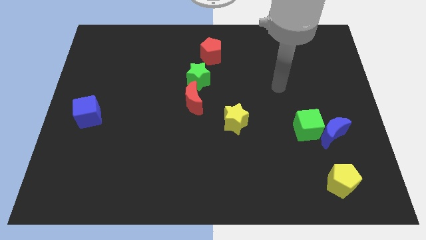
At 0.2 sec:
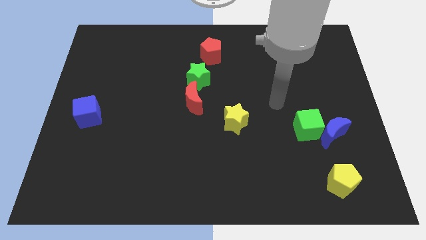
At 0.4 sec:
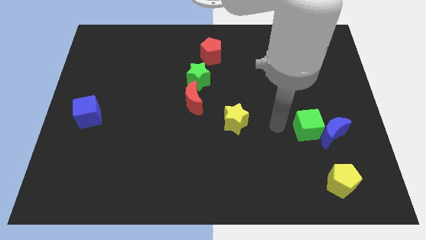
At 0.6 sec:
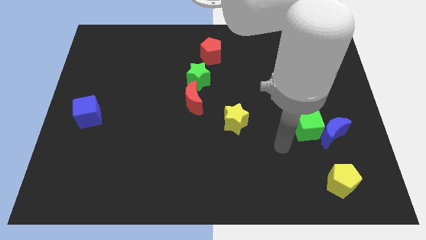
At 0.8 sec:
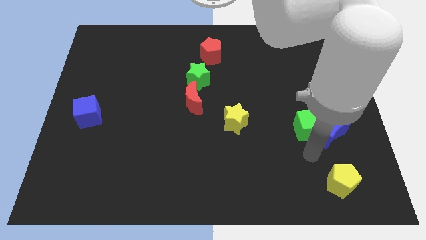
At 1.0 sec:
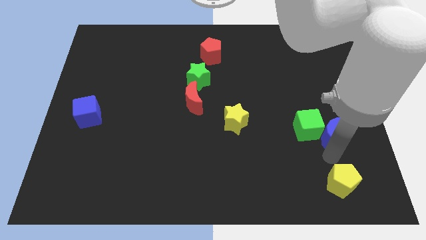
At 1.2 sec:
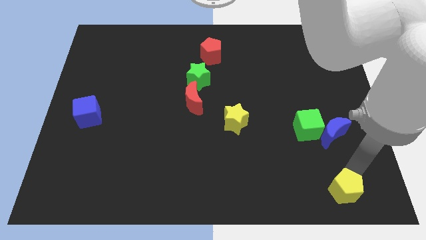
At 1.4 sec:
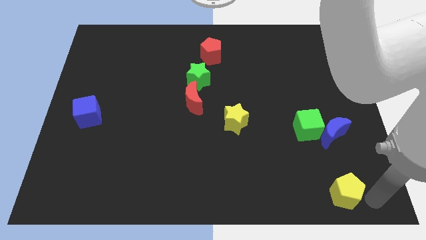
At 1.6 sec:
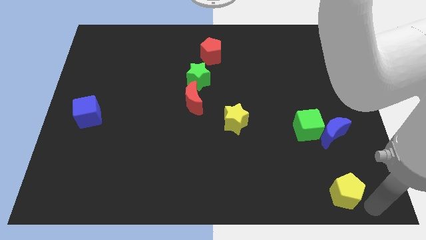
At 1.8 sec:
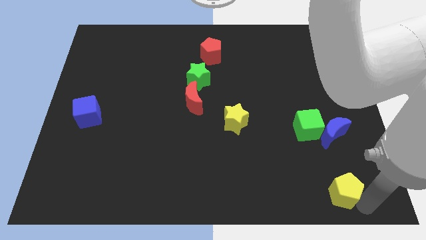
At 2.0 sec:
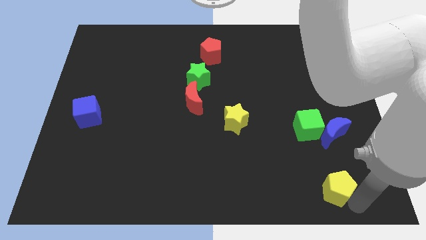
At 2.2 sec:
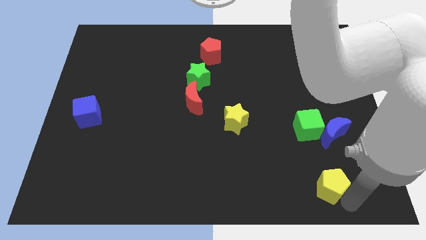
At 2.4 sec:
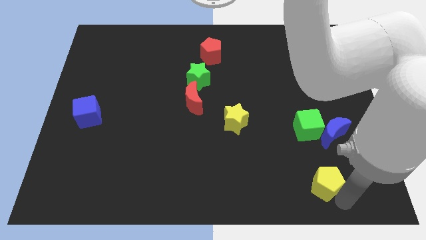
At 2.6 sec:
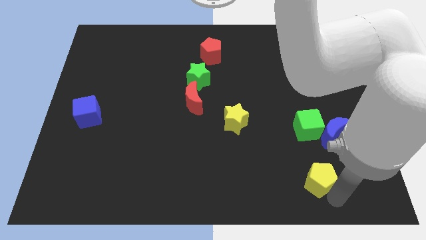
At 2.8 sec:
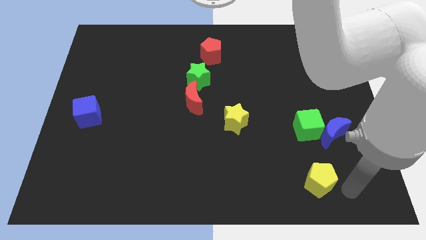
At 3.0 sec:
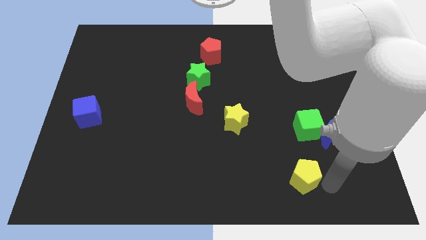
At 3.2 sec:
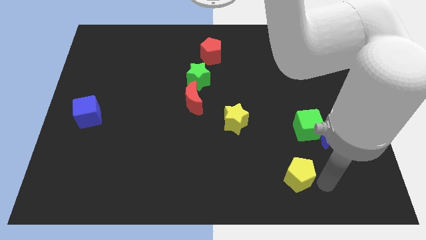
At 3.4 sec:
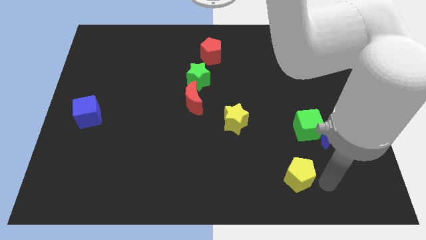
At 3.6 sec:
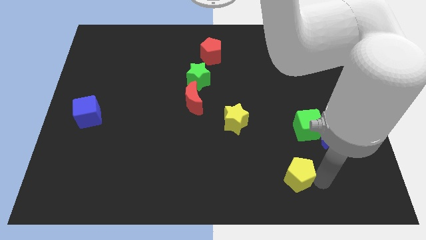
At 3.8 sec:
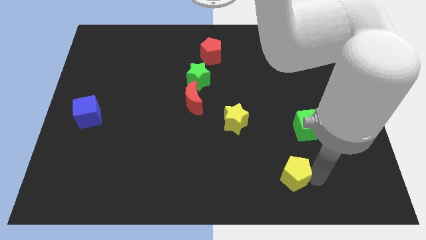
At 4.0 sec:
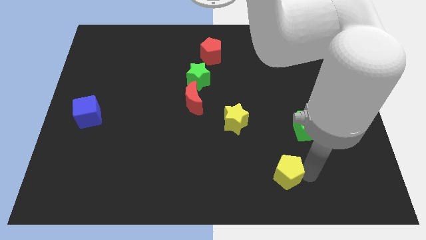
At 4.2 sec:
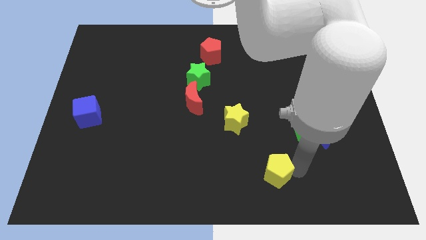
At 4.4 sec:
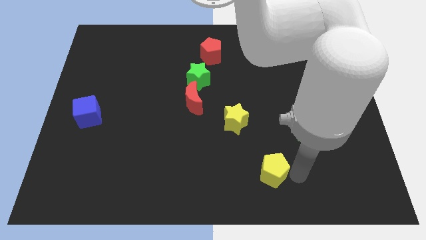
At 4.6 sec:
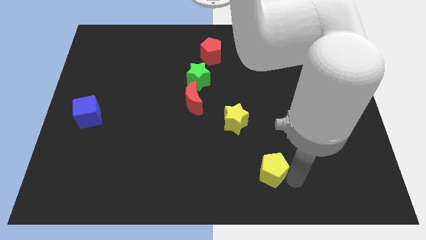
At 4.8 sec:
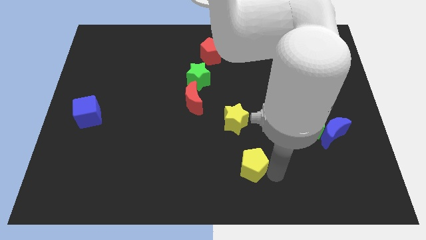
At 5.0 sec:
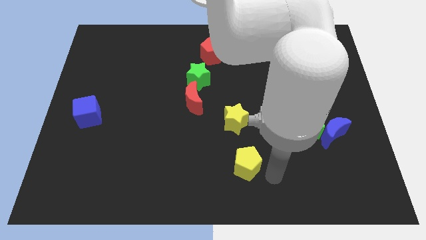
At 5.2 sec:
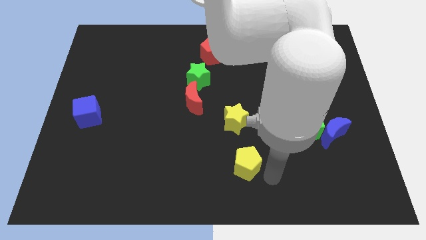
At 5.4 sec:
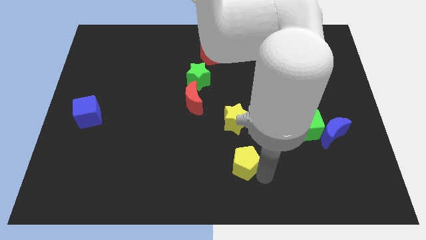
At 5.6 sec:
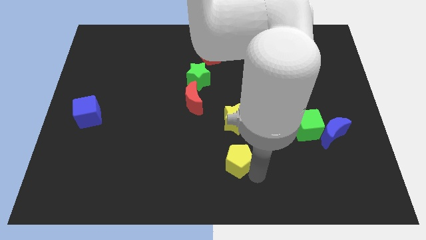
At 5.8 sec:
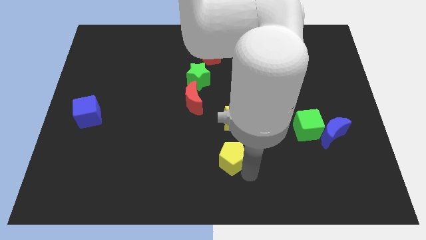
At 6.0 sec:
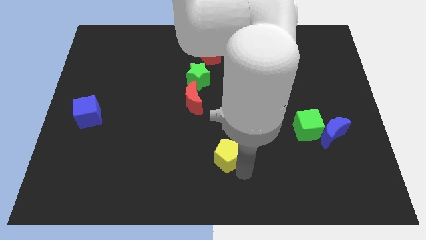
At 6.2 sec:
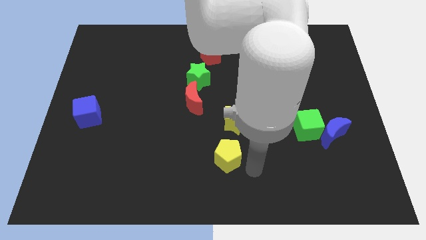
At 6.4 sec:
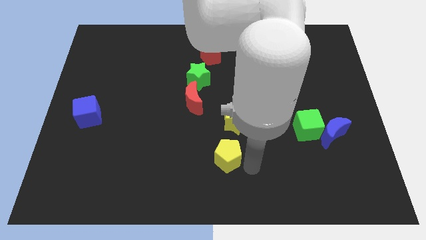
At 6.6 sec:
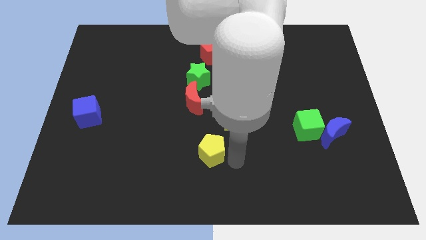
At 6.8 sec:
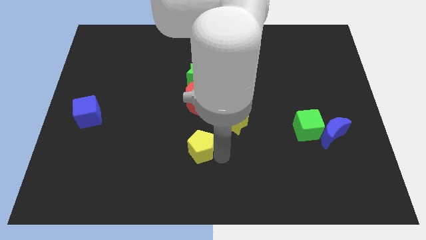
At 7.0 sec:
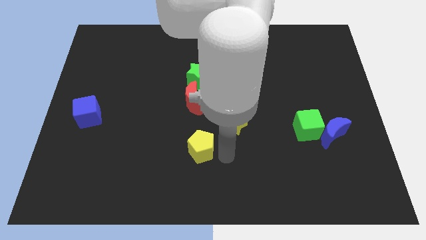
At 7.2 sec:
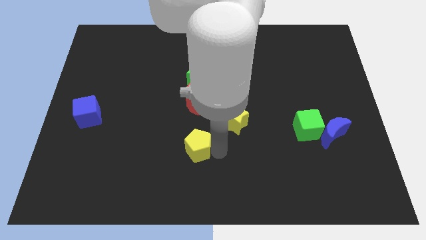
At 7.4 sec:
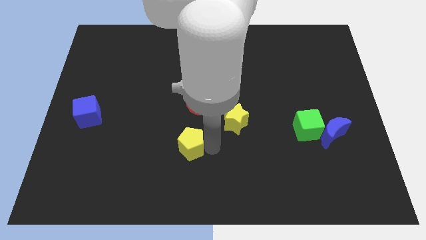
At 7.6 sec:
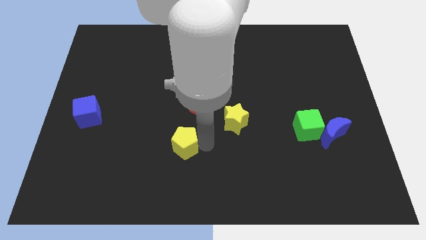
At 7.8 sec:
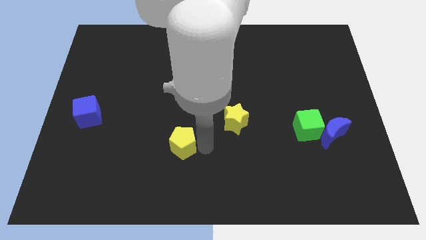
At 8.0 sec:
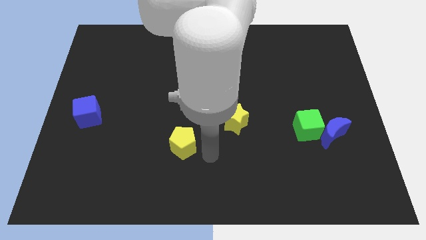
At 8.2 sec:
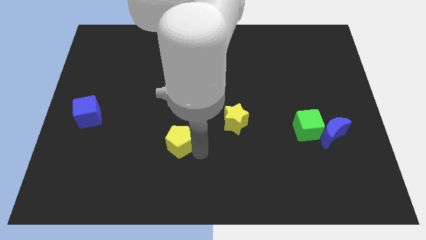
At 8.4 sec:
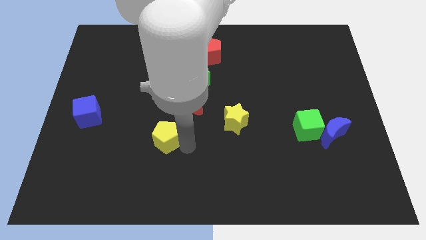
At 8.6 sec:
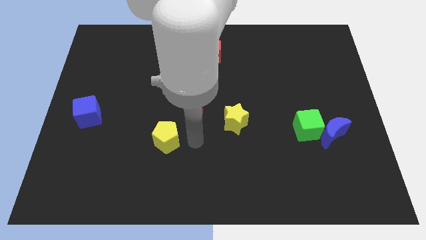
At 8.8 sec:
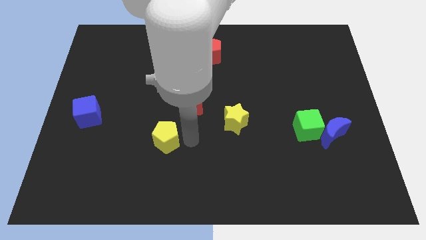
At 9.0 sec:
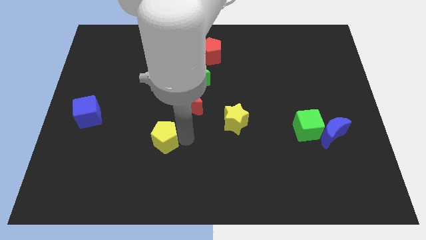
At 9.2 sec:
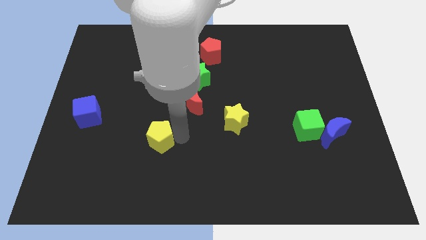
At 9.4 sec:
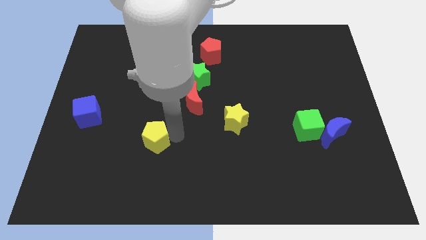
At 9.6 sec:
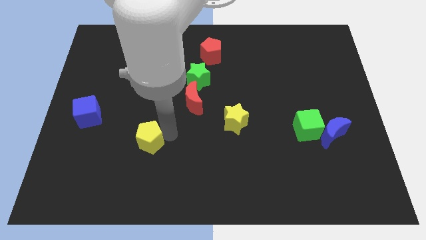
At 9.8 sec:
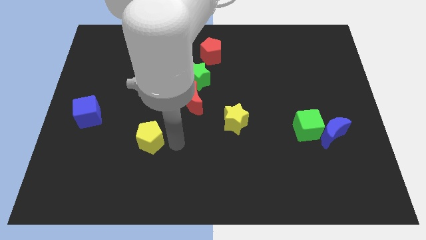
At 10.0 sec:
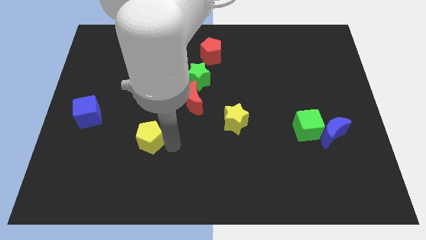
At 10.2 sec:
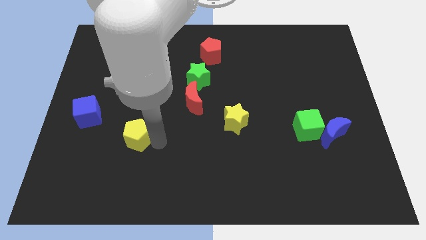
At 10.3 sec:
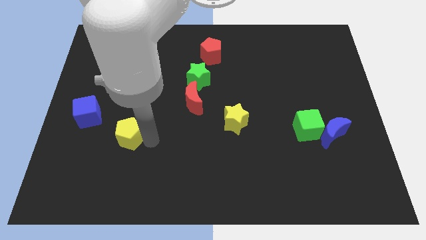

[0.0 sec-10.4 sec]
slide the yellow pentagon diagonally down and to the right of the blue cube

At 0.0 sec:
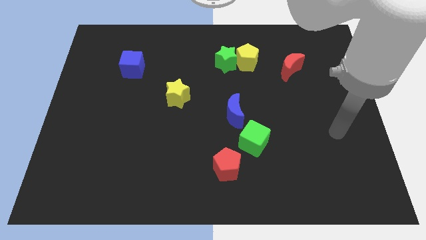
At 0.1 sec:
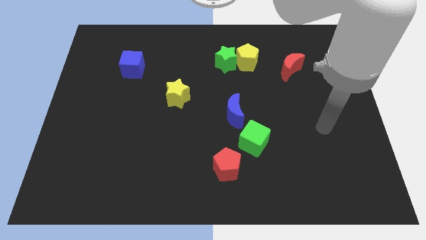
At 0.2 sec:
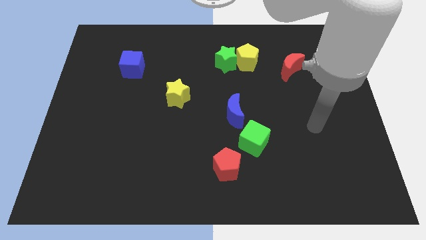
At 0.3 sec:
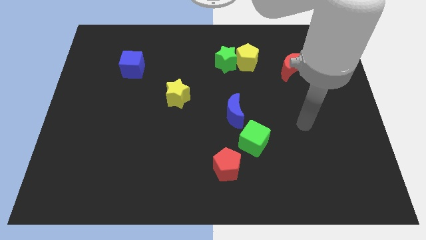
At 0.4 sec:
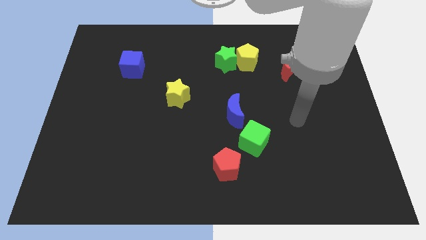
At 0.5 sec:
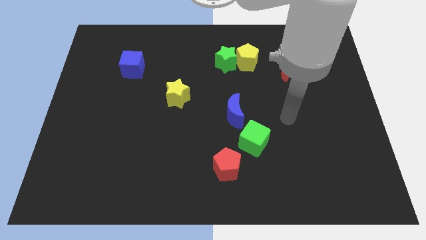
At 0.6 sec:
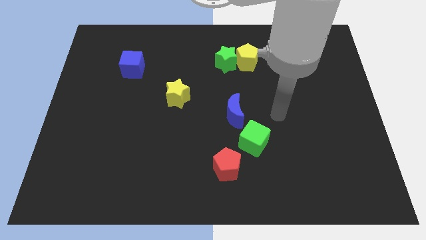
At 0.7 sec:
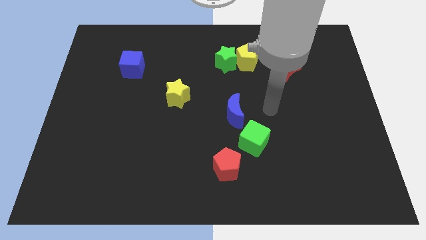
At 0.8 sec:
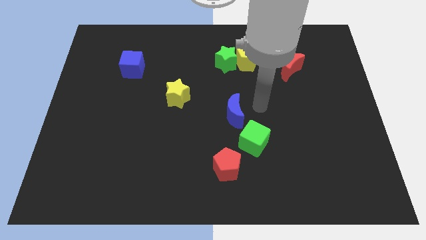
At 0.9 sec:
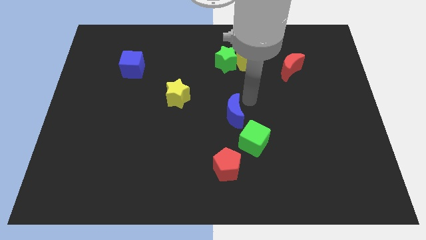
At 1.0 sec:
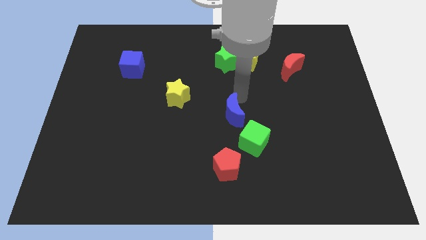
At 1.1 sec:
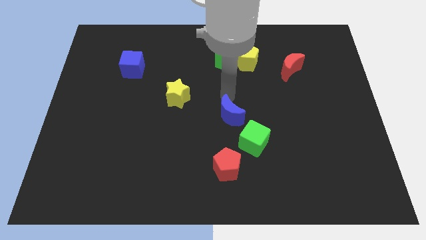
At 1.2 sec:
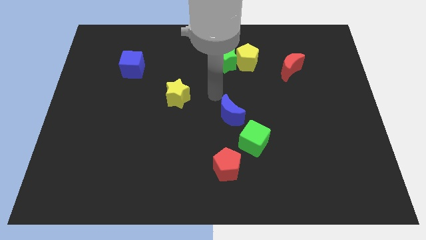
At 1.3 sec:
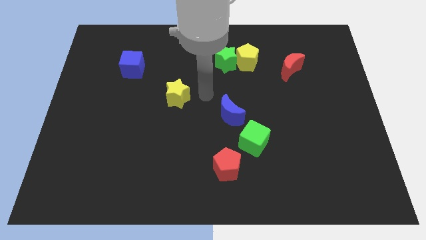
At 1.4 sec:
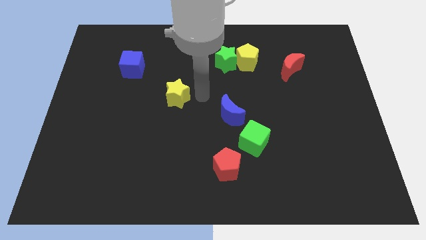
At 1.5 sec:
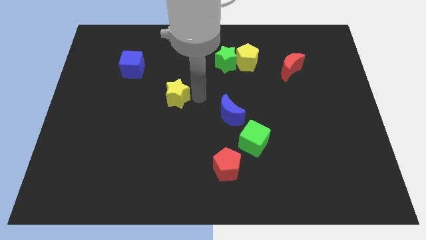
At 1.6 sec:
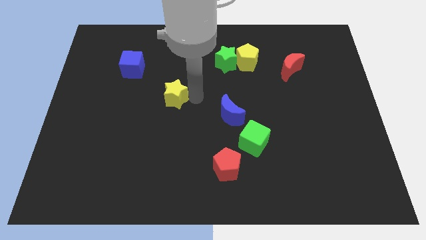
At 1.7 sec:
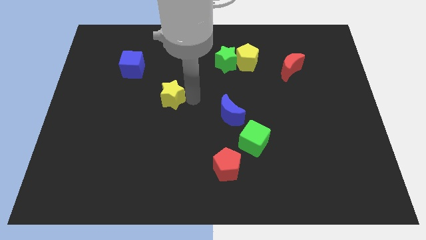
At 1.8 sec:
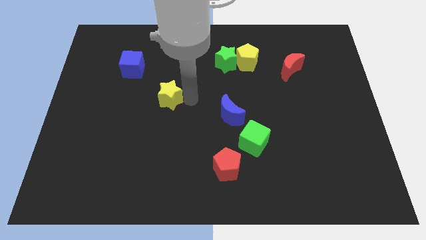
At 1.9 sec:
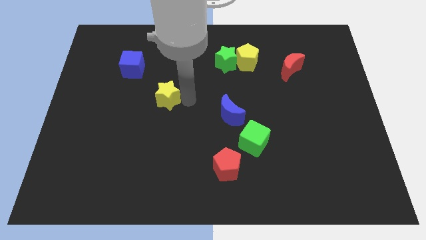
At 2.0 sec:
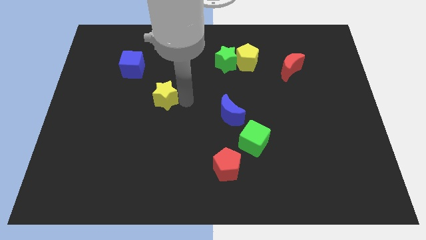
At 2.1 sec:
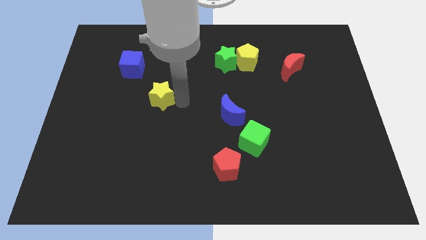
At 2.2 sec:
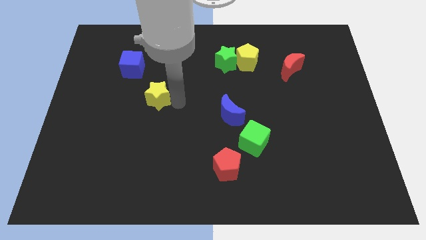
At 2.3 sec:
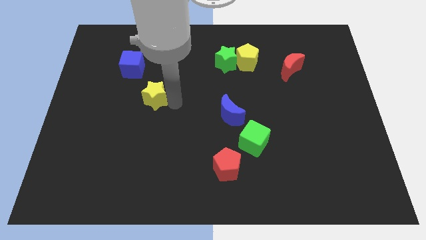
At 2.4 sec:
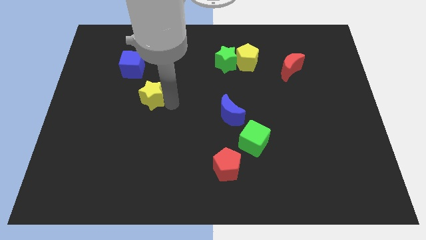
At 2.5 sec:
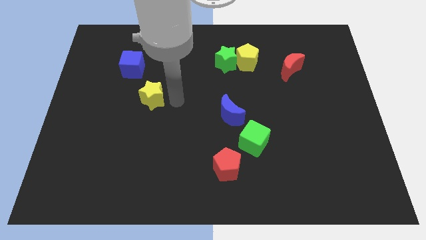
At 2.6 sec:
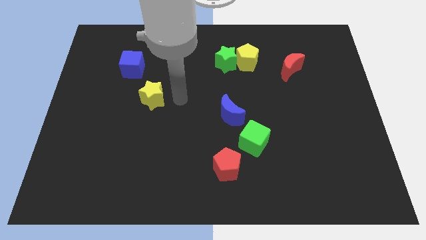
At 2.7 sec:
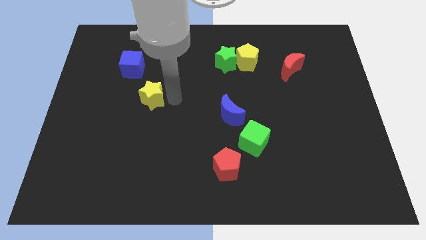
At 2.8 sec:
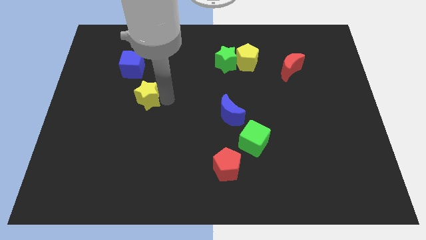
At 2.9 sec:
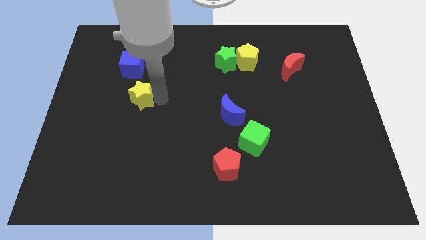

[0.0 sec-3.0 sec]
move the yellow star to the bottom side of the blue cube
